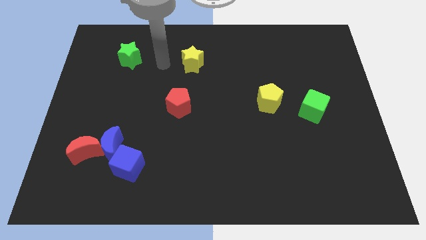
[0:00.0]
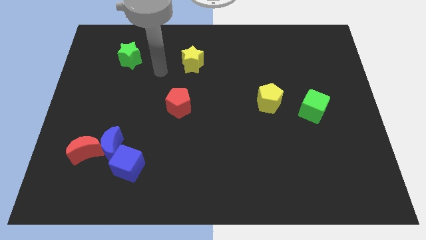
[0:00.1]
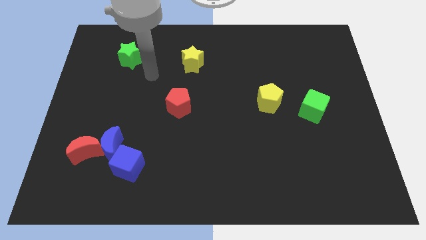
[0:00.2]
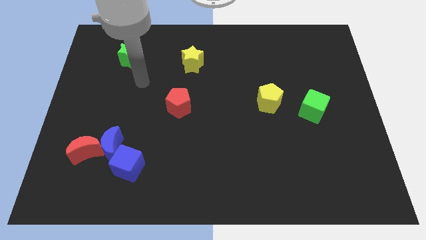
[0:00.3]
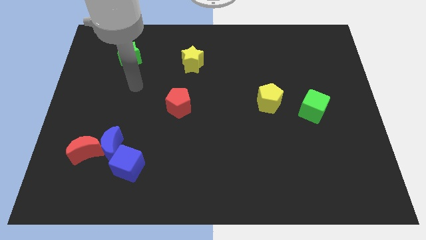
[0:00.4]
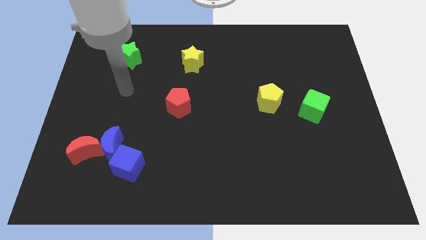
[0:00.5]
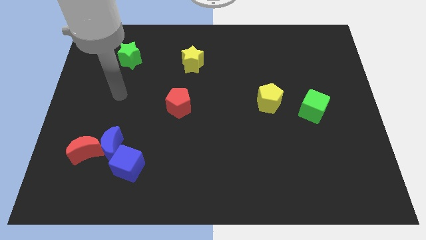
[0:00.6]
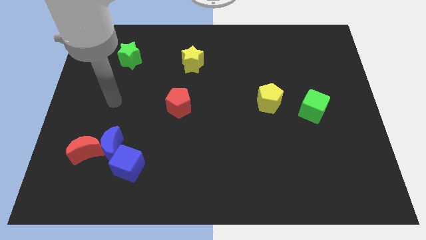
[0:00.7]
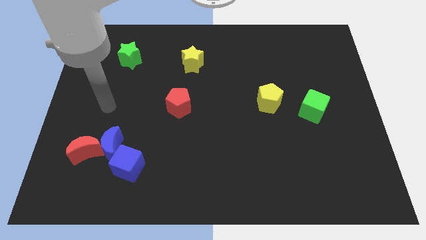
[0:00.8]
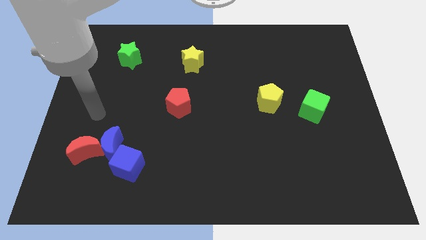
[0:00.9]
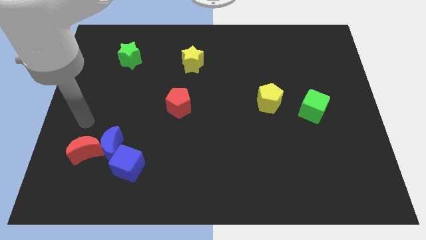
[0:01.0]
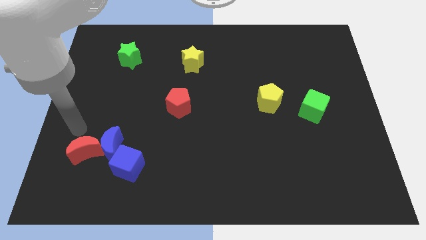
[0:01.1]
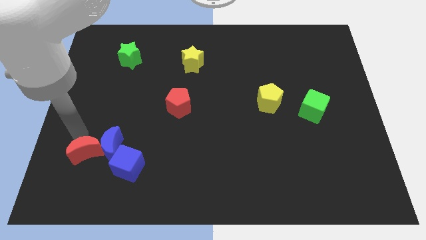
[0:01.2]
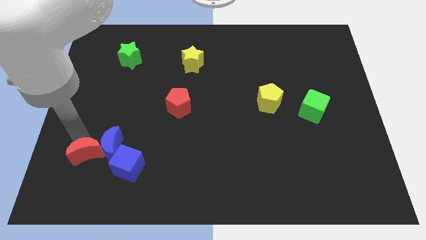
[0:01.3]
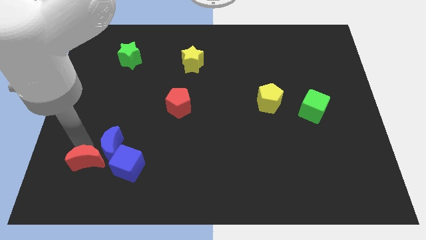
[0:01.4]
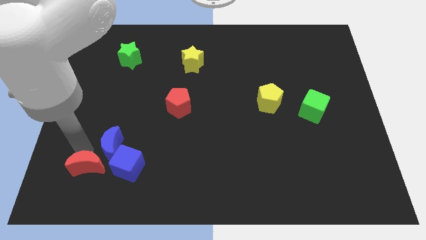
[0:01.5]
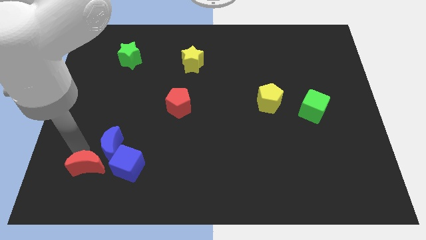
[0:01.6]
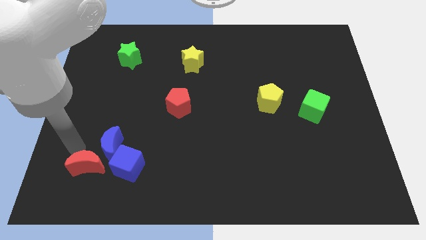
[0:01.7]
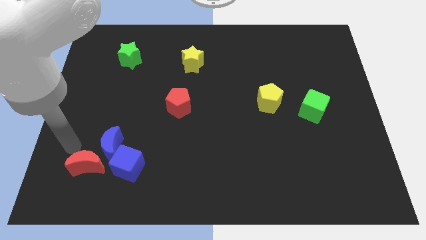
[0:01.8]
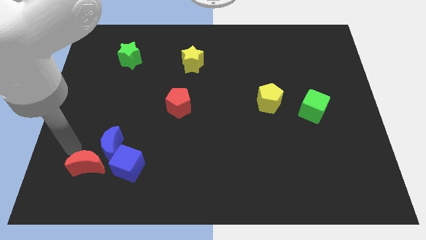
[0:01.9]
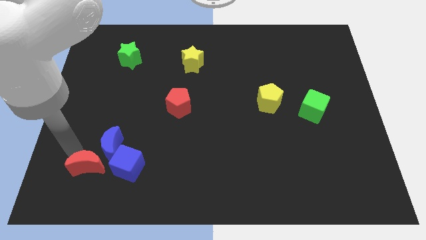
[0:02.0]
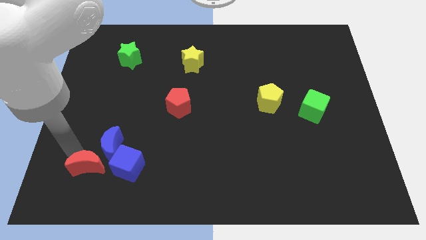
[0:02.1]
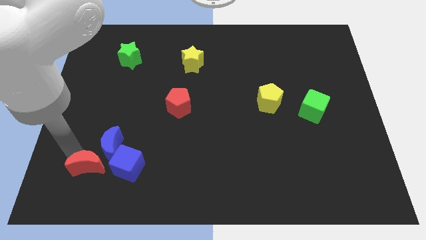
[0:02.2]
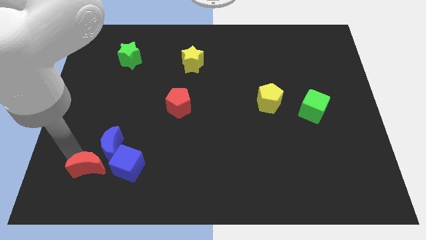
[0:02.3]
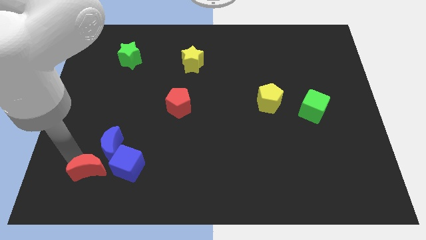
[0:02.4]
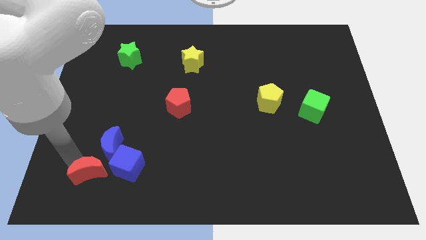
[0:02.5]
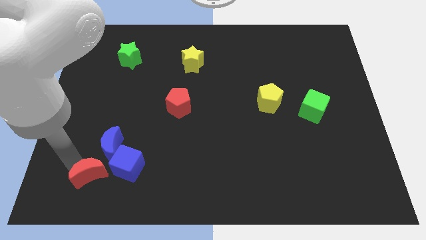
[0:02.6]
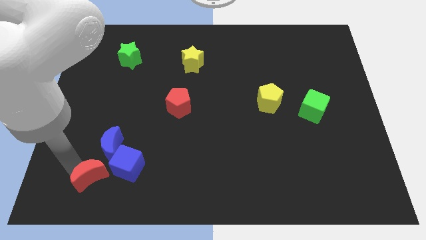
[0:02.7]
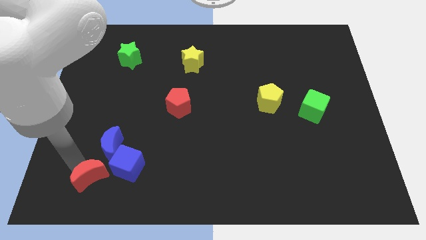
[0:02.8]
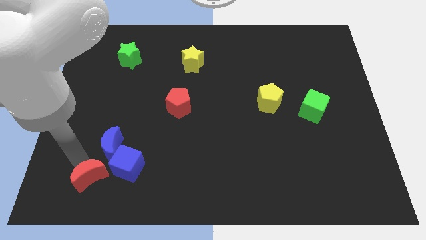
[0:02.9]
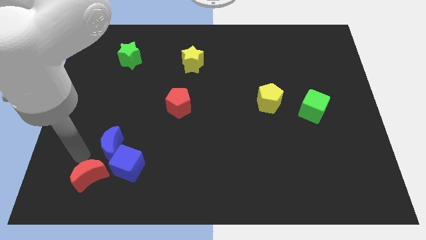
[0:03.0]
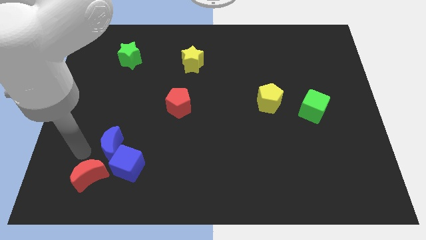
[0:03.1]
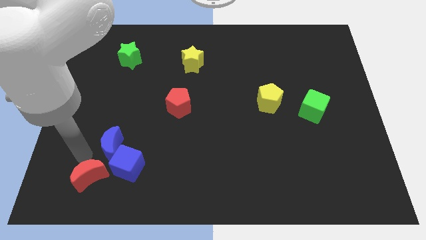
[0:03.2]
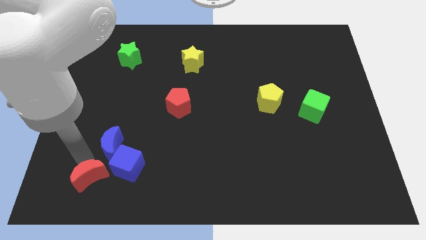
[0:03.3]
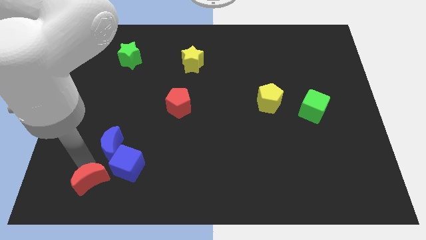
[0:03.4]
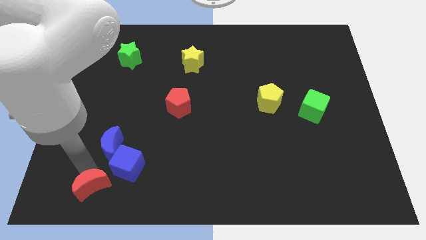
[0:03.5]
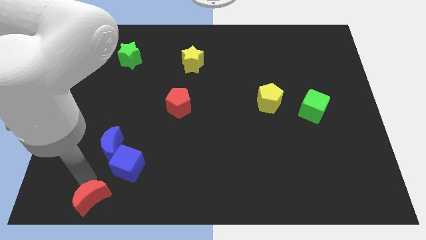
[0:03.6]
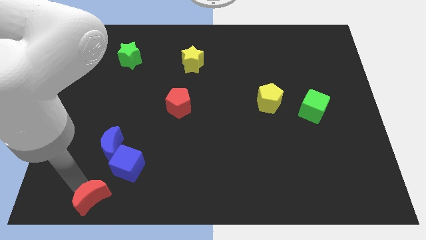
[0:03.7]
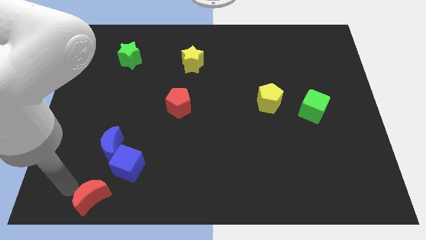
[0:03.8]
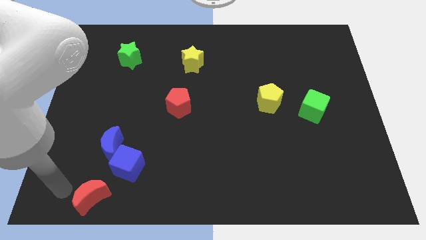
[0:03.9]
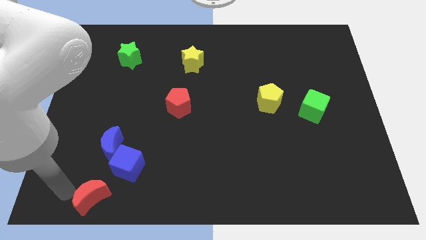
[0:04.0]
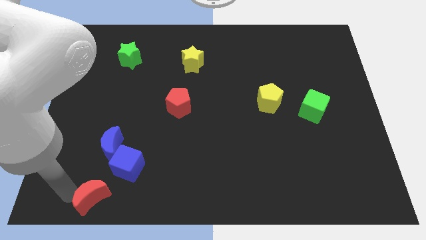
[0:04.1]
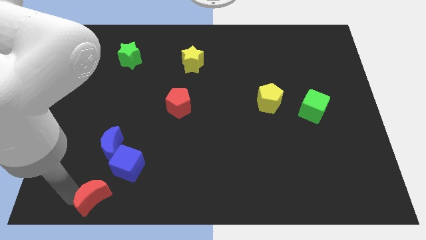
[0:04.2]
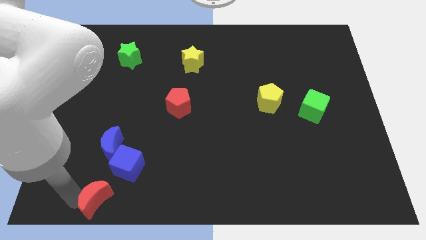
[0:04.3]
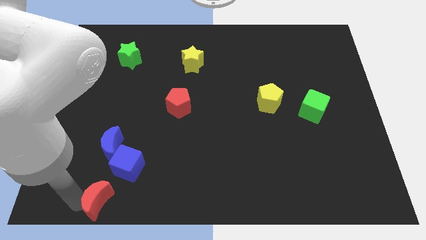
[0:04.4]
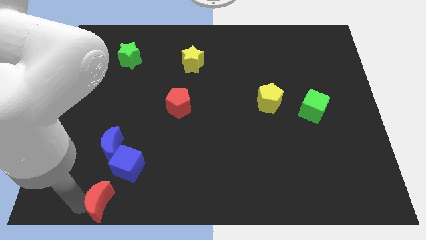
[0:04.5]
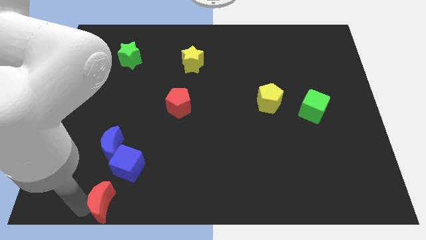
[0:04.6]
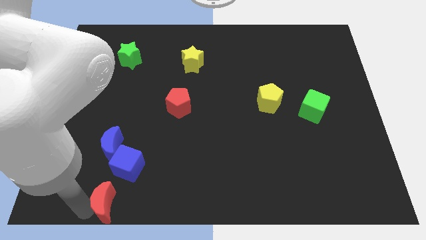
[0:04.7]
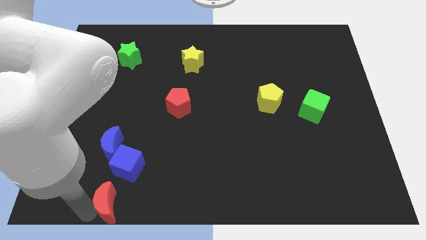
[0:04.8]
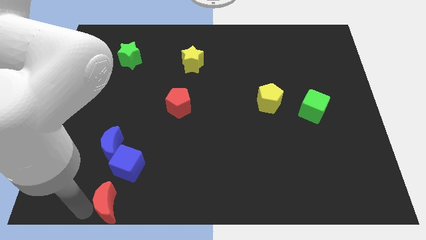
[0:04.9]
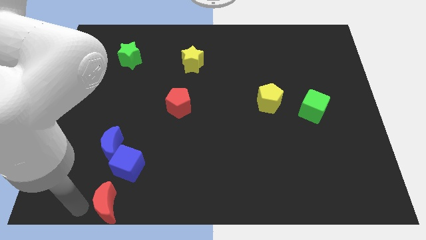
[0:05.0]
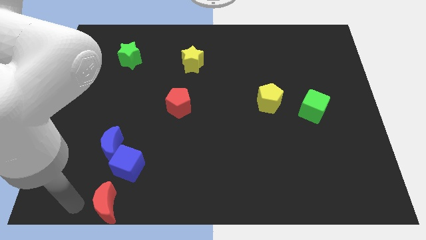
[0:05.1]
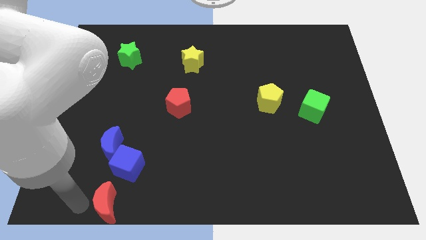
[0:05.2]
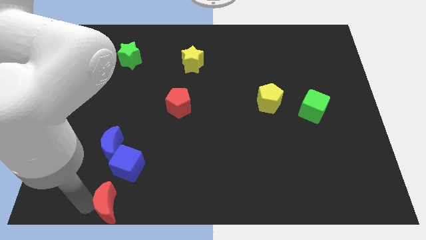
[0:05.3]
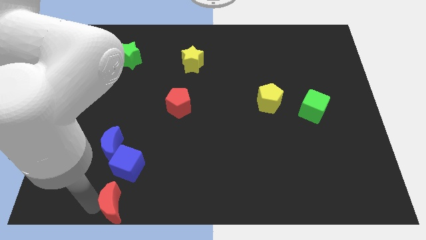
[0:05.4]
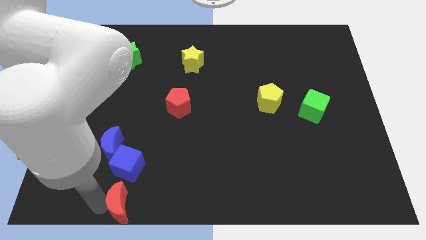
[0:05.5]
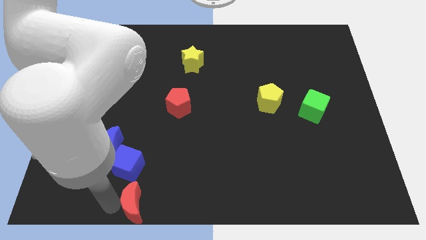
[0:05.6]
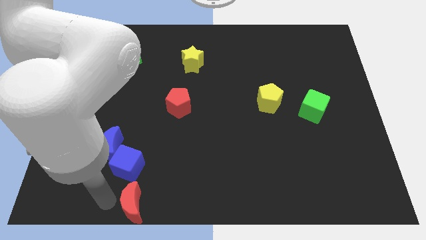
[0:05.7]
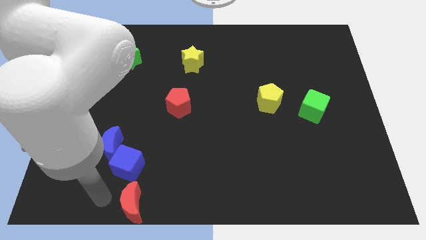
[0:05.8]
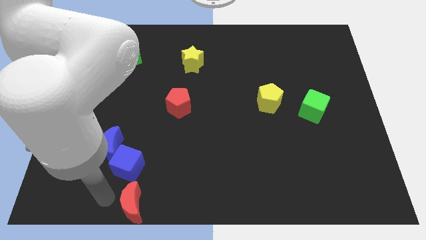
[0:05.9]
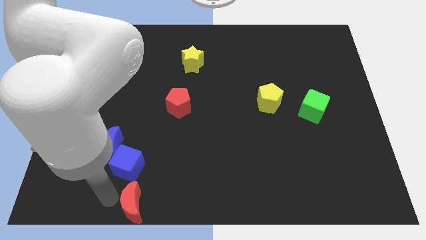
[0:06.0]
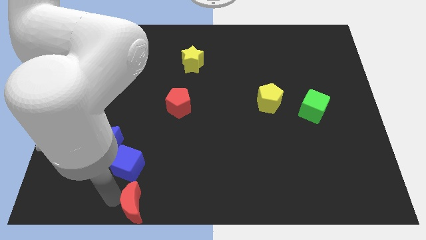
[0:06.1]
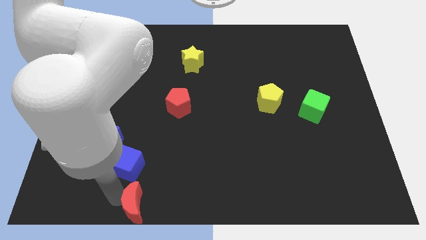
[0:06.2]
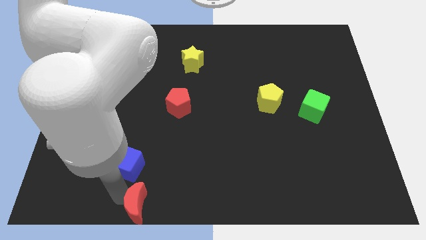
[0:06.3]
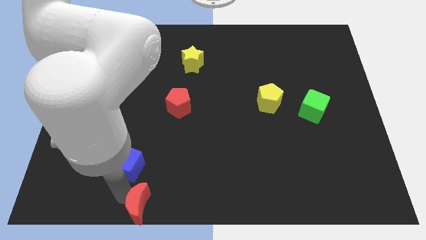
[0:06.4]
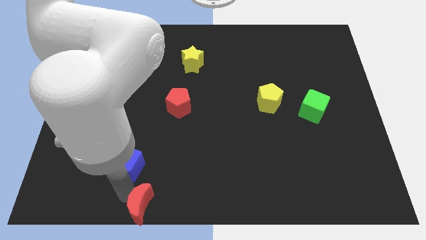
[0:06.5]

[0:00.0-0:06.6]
put the red moon to the bottom side
